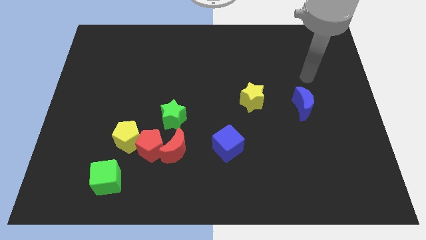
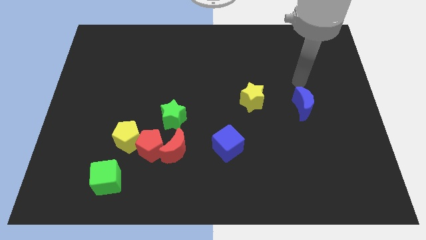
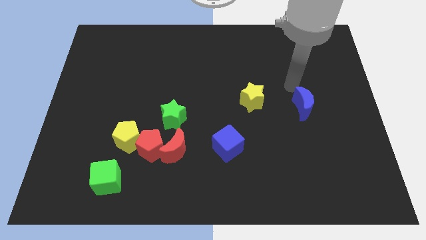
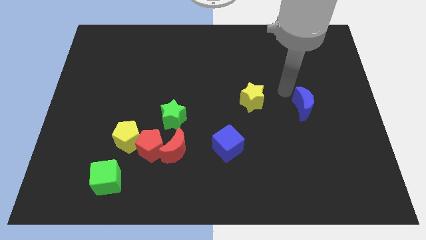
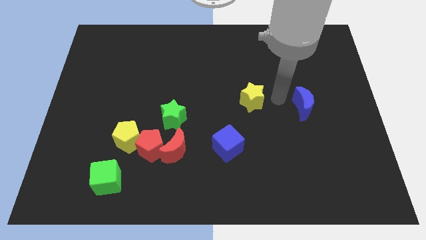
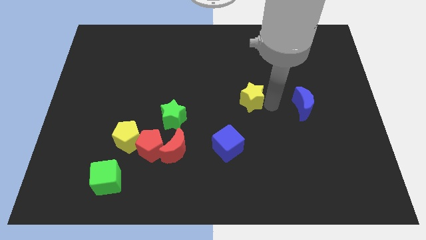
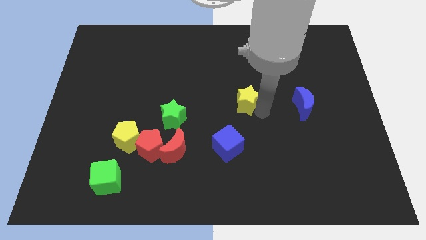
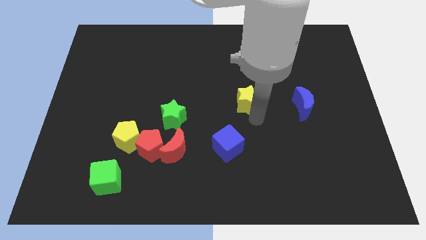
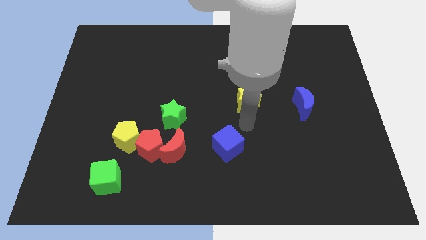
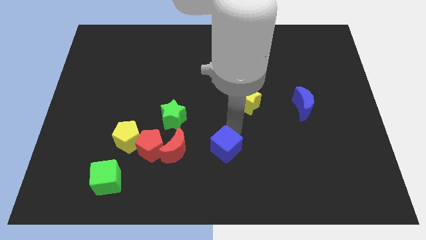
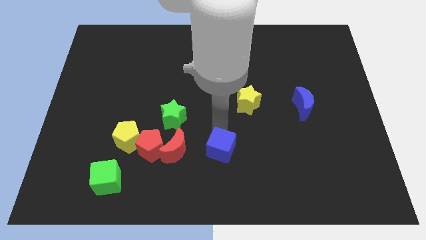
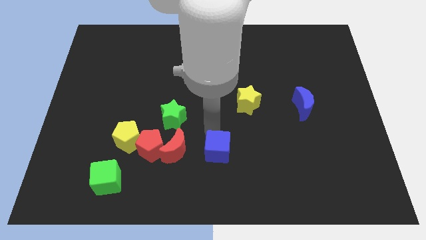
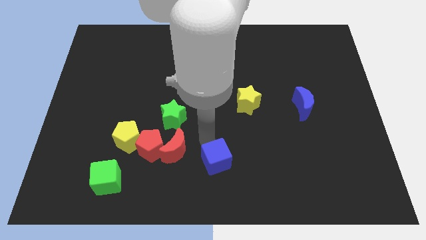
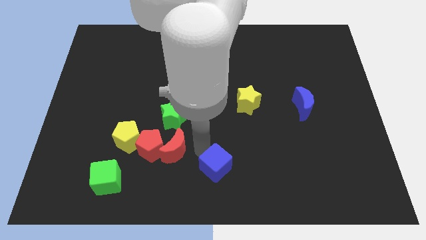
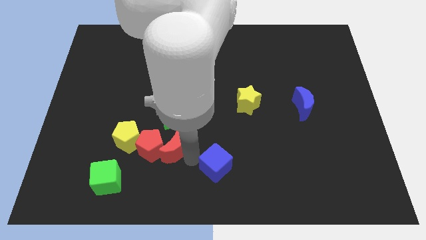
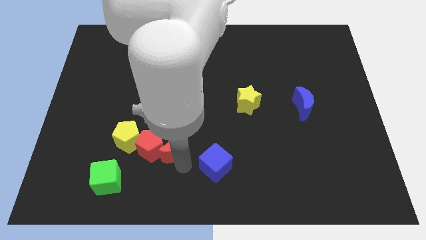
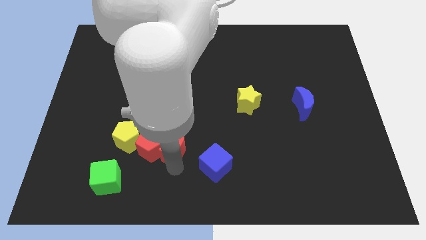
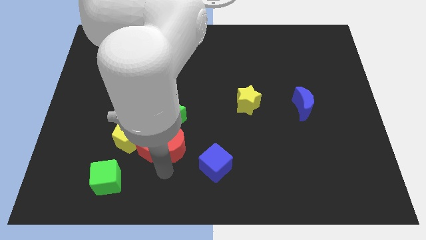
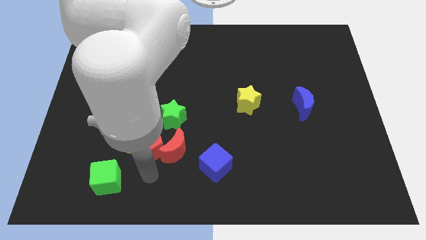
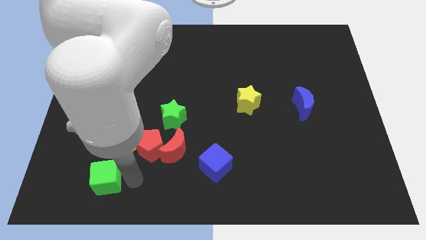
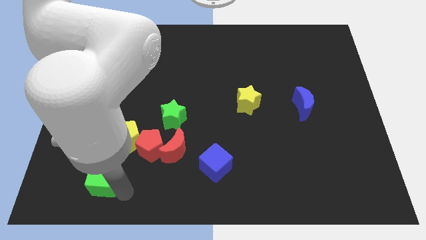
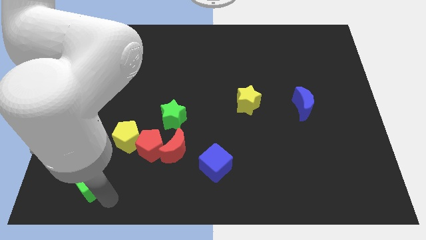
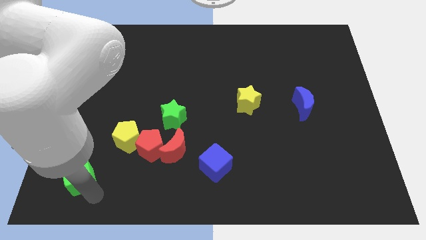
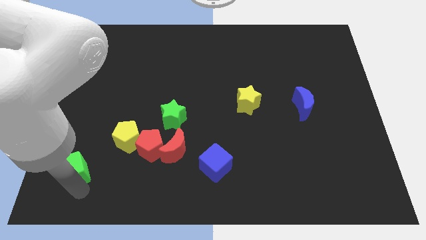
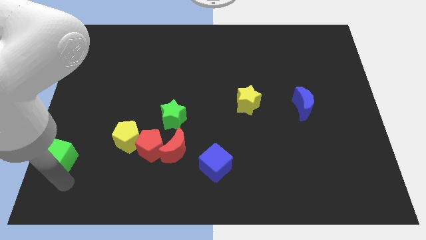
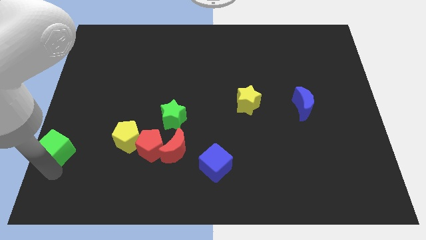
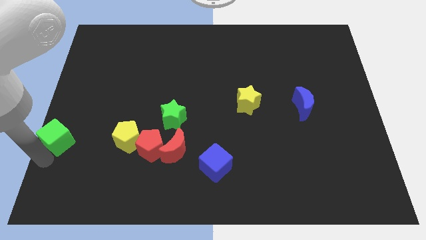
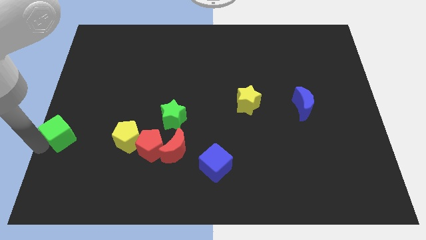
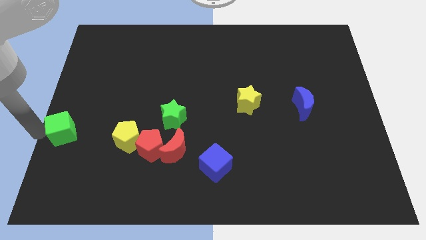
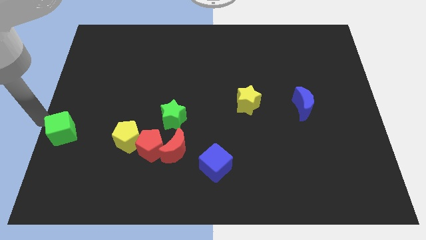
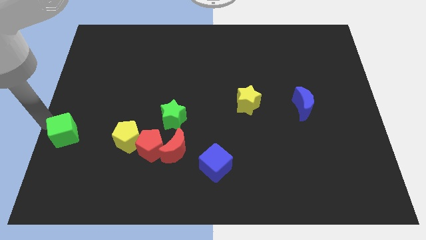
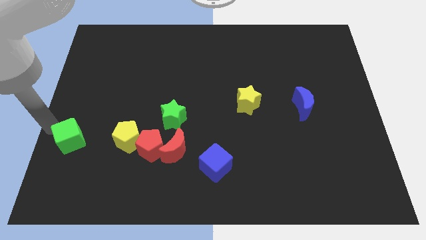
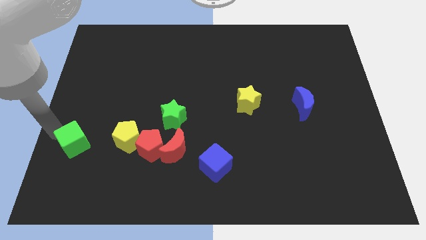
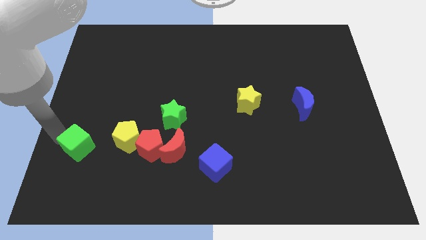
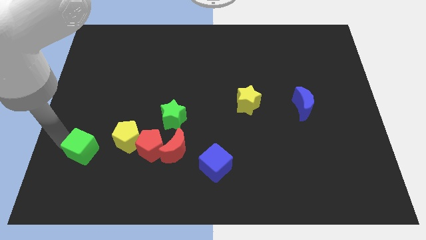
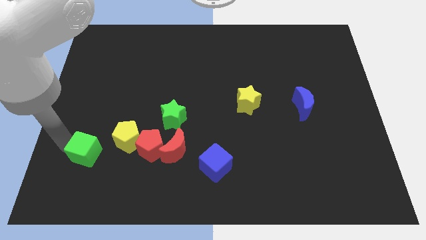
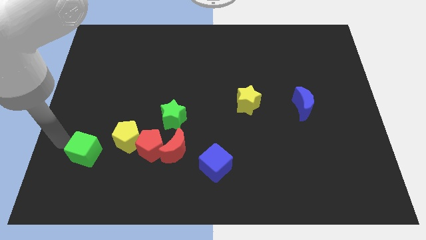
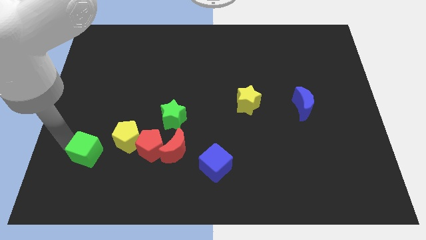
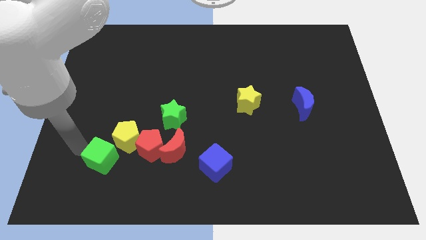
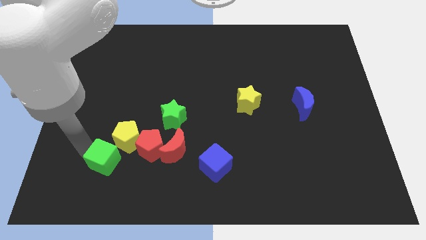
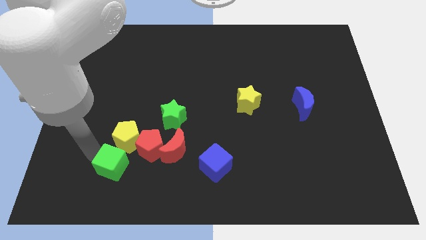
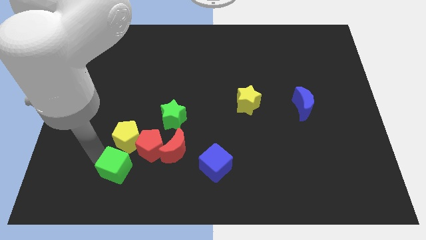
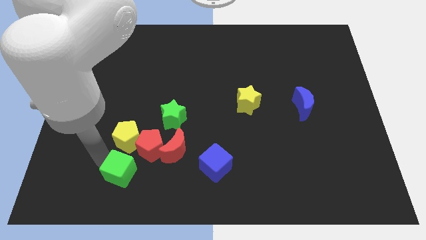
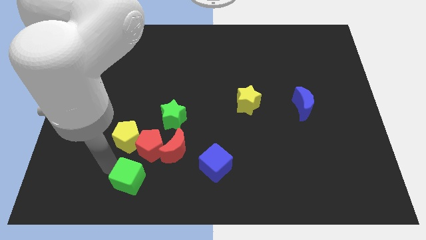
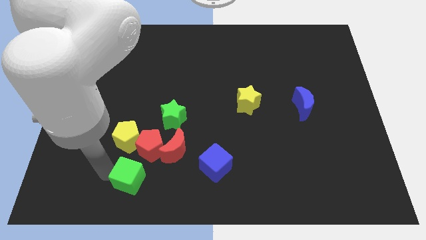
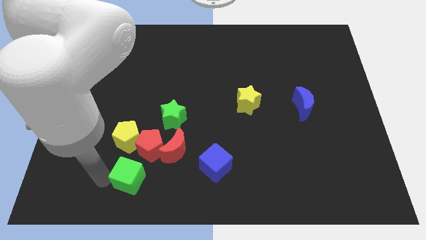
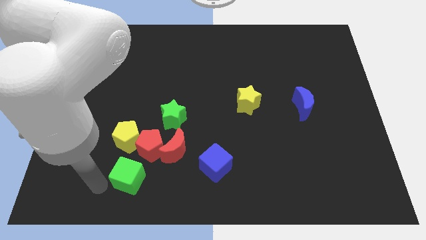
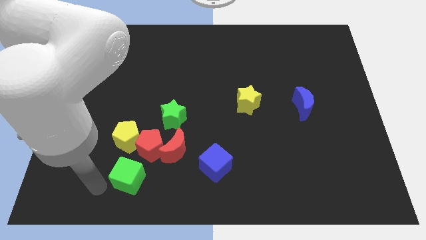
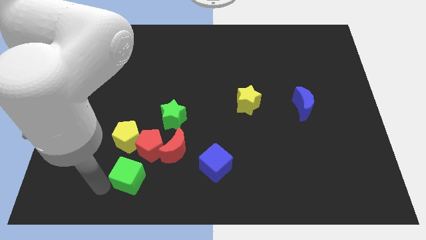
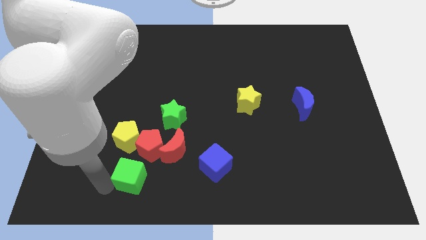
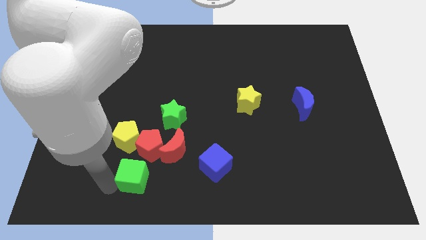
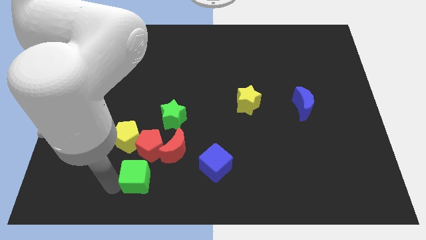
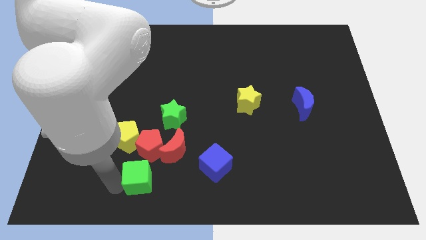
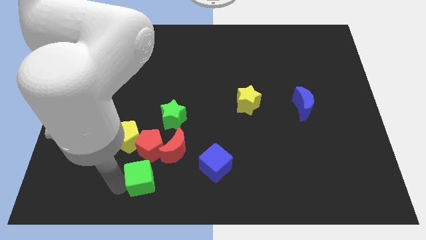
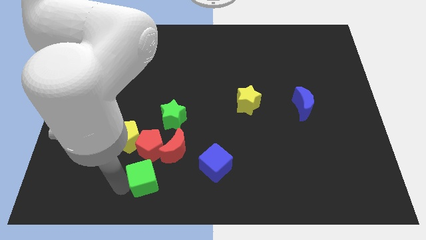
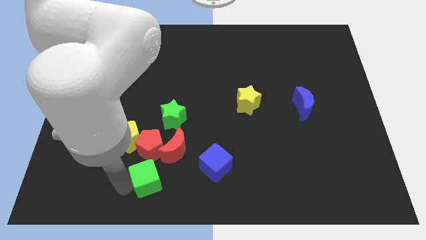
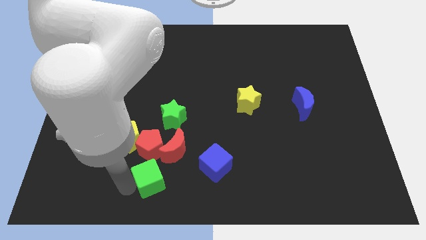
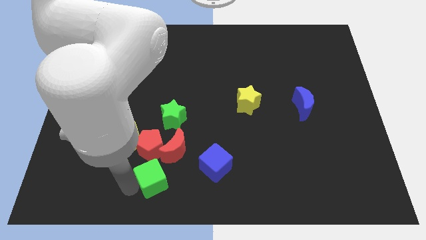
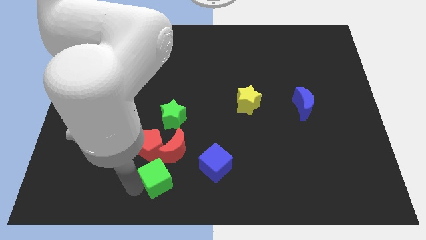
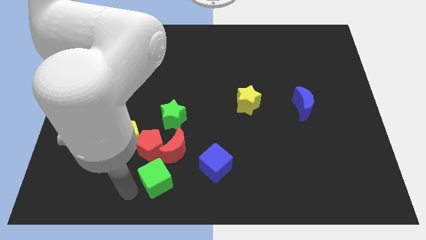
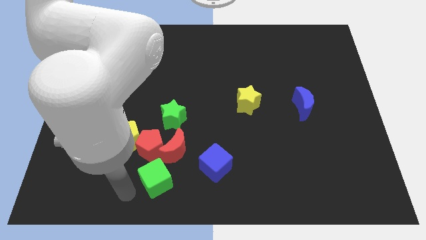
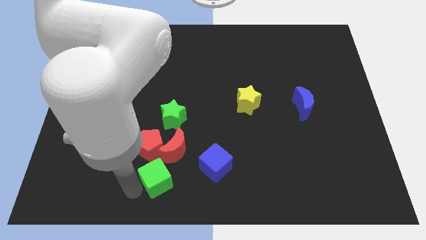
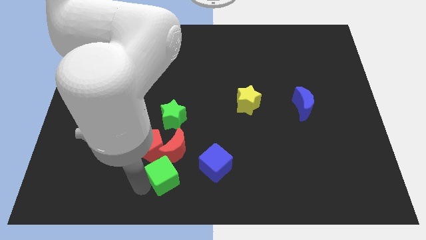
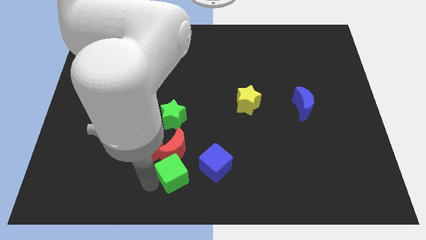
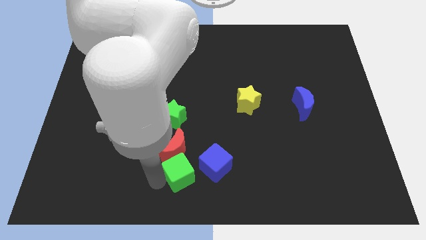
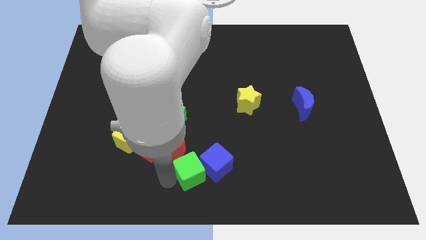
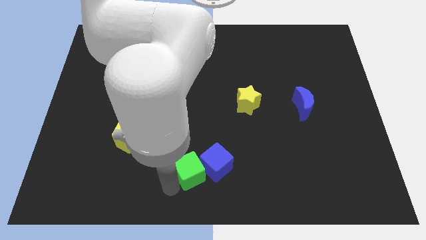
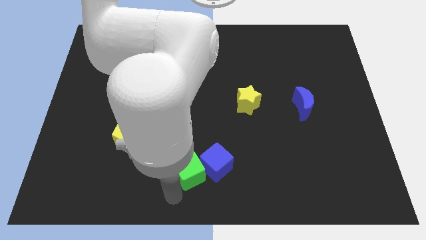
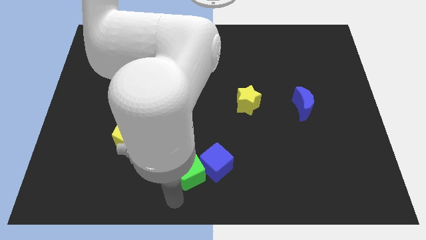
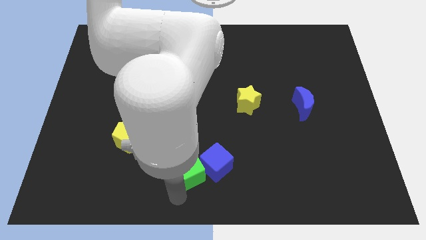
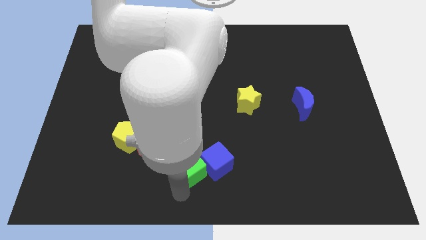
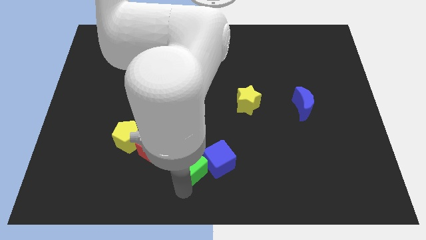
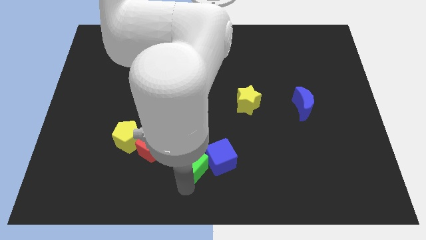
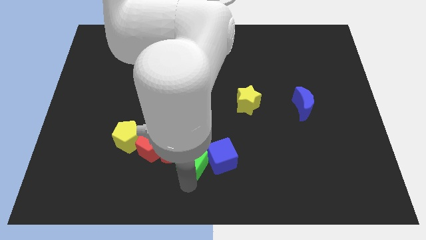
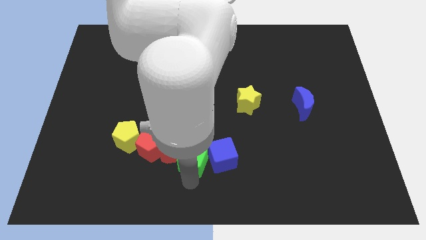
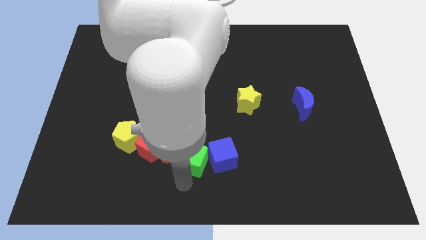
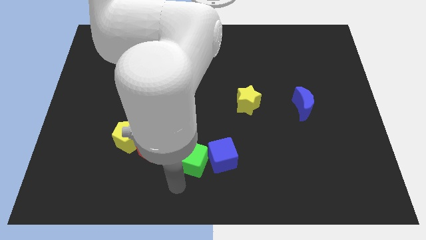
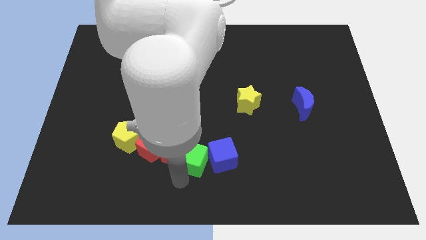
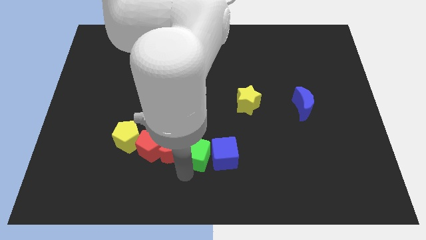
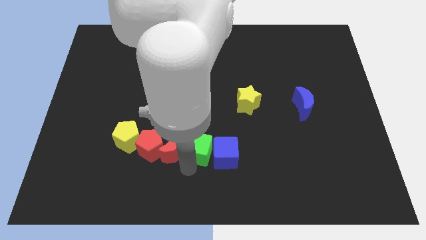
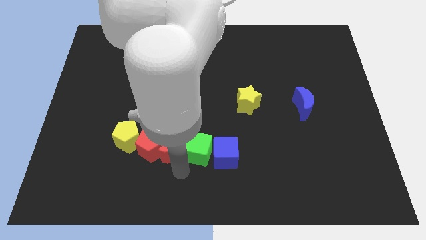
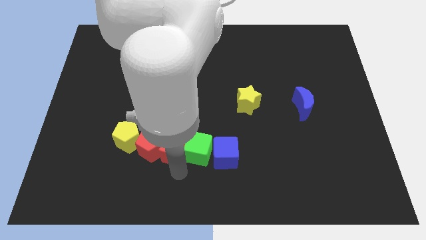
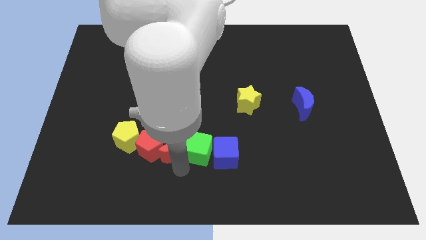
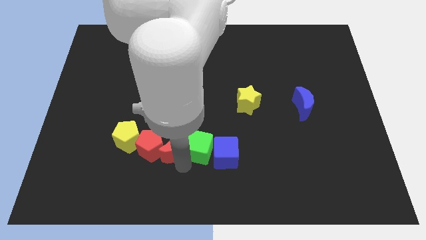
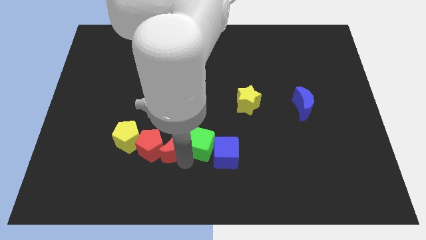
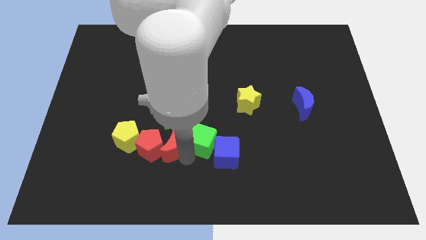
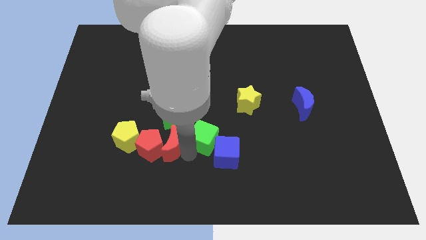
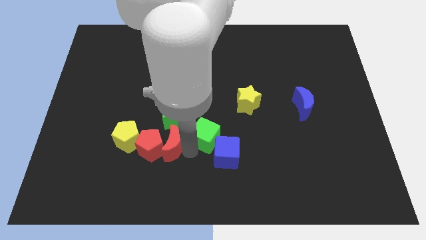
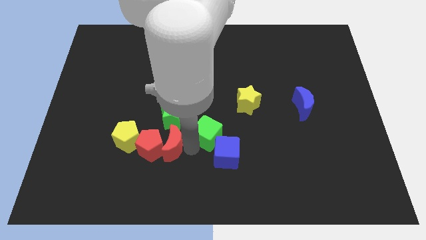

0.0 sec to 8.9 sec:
put the green cube diagonally down and to the left of the yellow star
